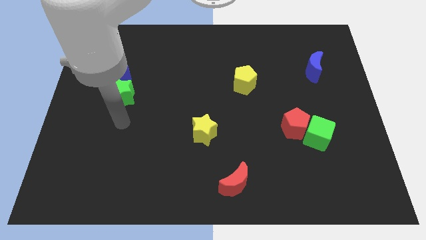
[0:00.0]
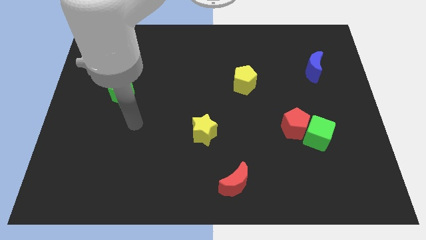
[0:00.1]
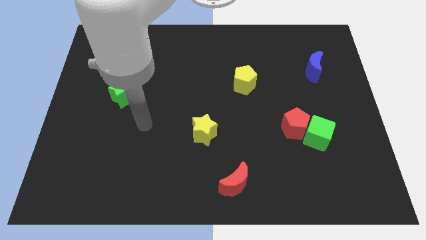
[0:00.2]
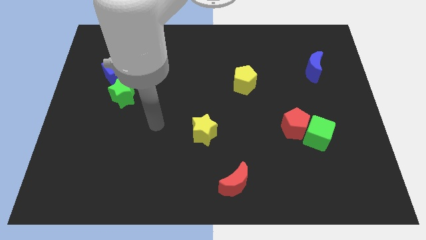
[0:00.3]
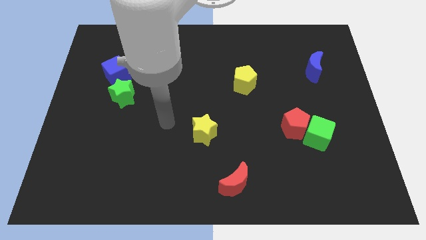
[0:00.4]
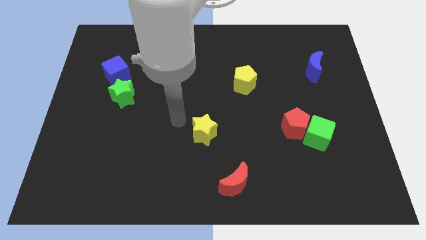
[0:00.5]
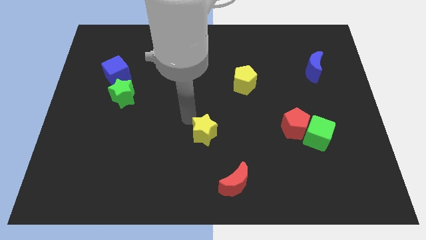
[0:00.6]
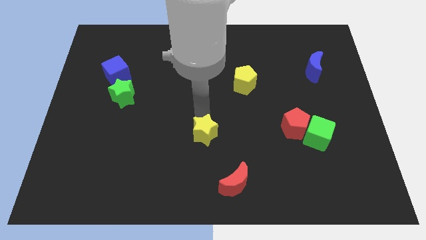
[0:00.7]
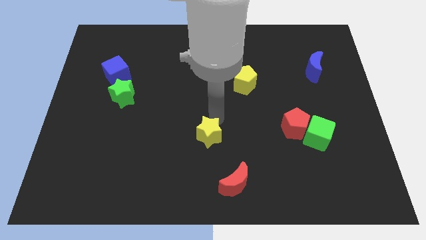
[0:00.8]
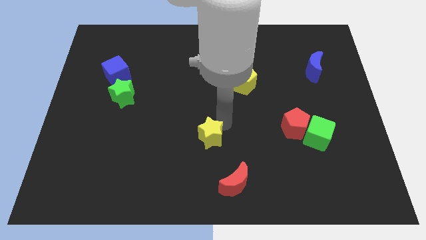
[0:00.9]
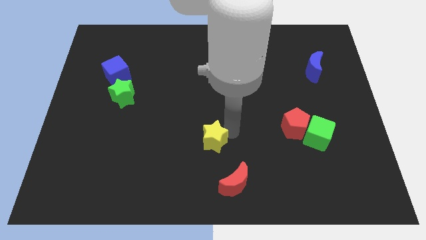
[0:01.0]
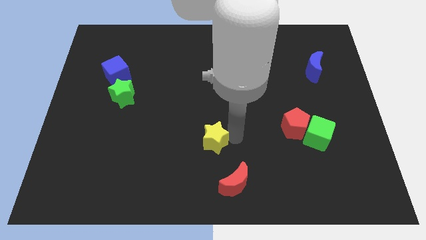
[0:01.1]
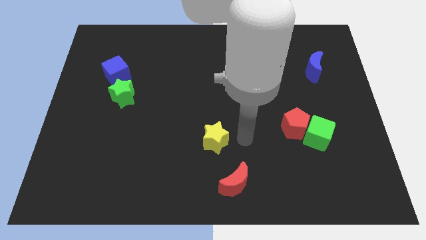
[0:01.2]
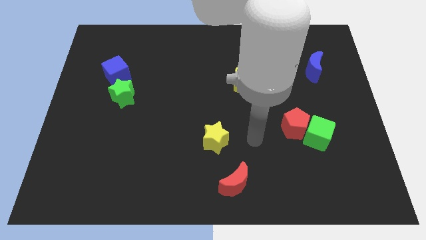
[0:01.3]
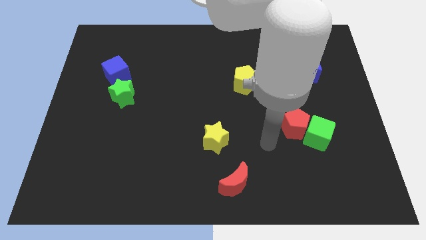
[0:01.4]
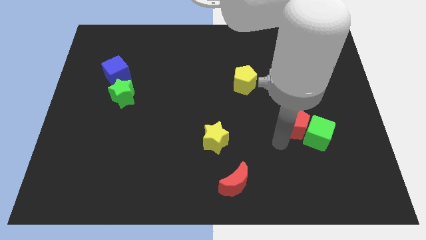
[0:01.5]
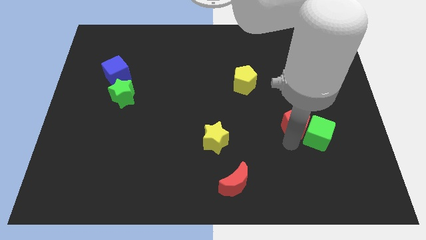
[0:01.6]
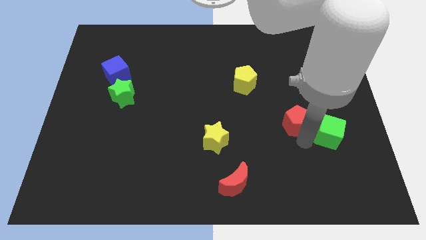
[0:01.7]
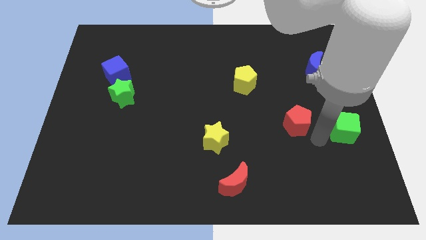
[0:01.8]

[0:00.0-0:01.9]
separate the red pentagon from the green cube

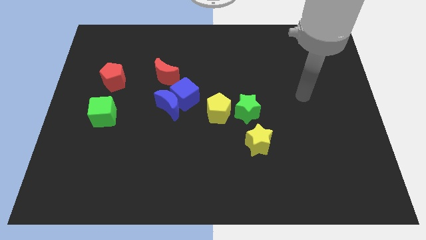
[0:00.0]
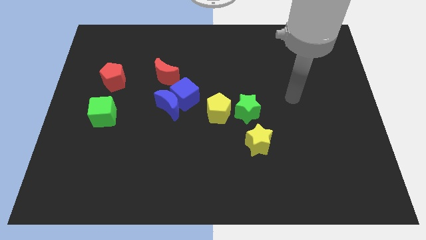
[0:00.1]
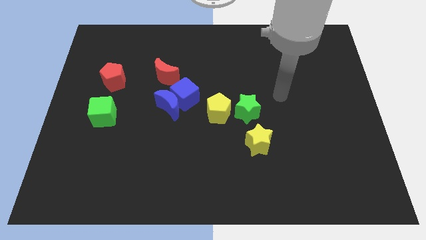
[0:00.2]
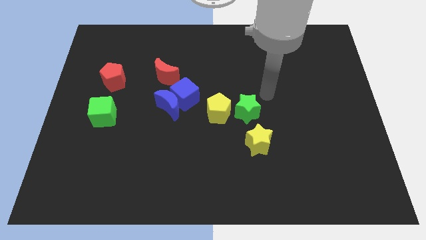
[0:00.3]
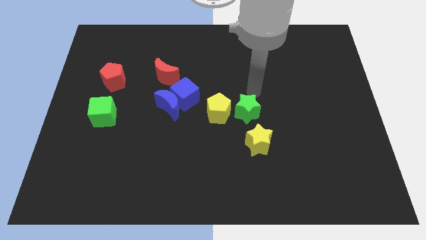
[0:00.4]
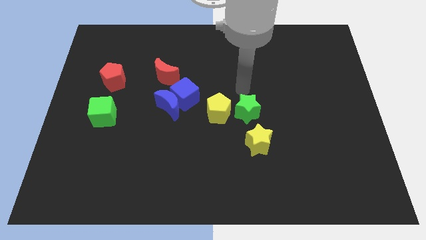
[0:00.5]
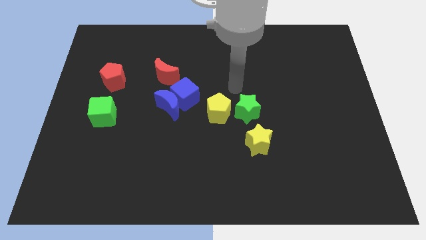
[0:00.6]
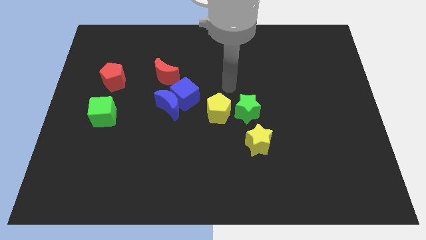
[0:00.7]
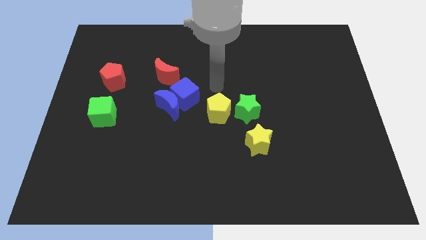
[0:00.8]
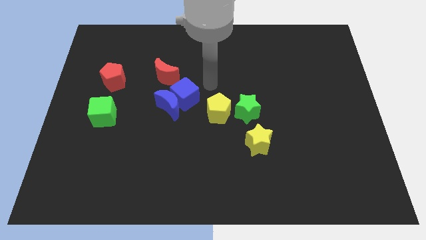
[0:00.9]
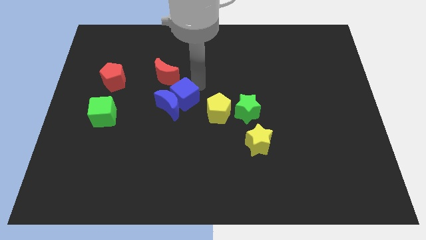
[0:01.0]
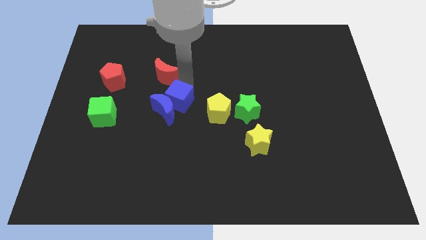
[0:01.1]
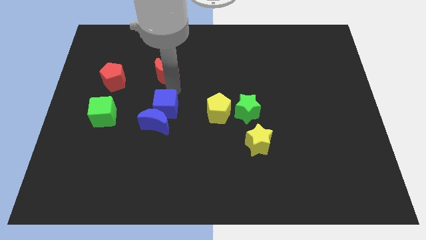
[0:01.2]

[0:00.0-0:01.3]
pull the blue moon apart from the blue cube and red moon

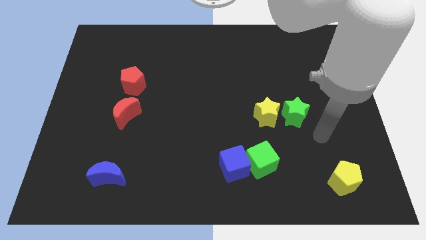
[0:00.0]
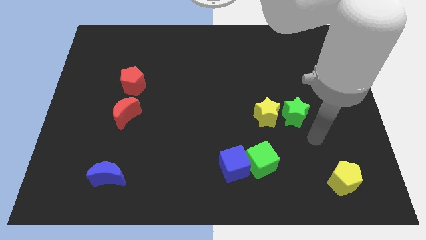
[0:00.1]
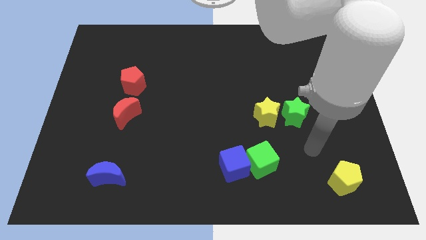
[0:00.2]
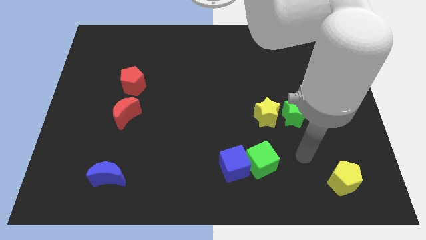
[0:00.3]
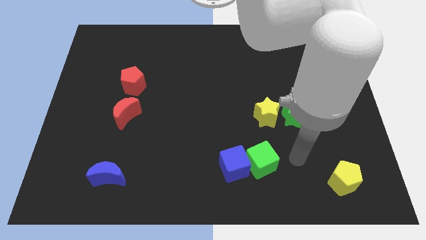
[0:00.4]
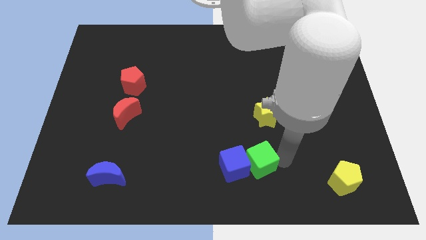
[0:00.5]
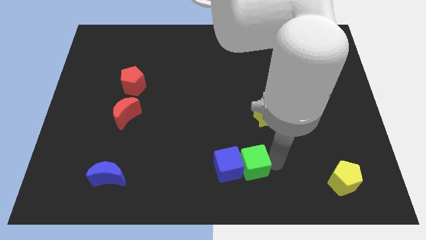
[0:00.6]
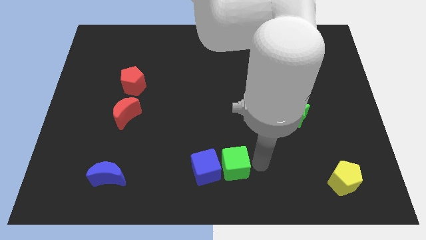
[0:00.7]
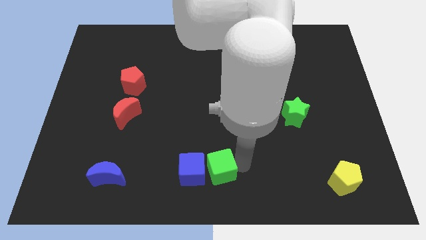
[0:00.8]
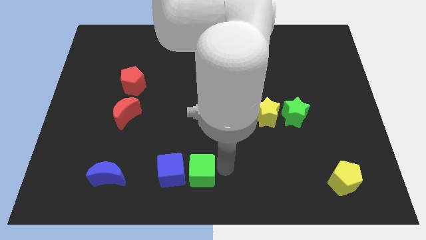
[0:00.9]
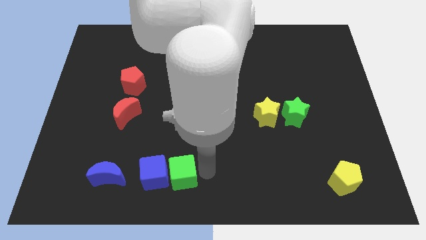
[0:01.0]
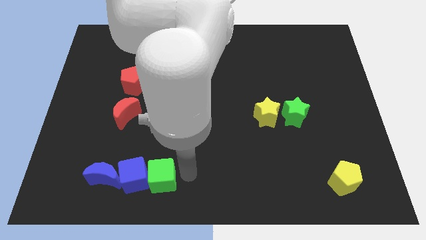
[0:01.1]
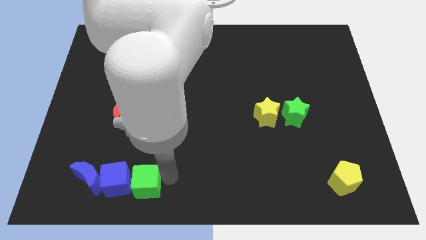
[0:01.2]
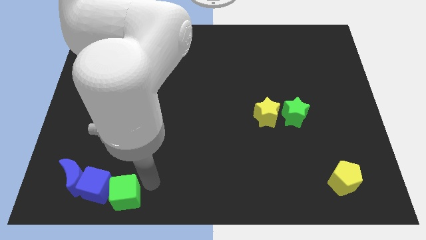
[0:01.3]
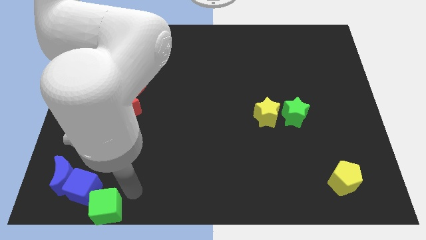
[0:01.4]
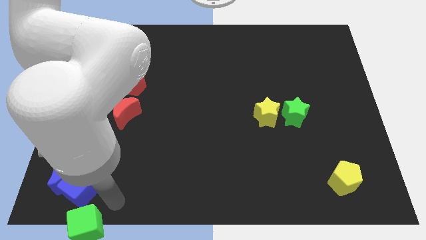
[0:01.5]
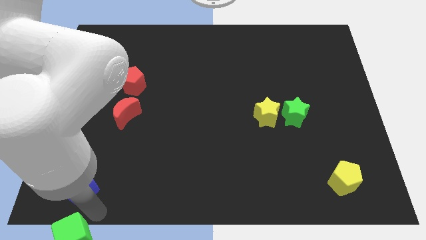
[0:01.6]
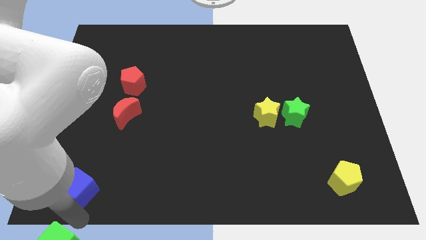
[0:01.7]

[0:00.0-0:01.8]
move the blue cube away from the green cube

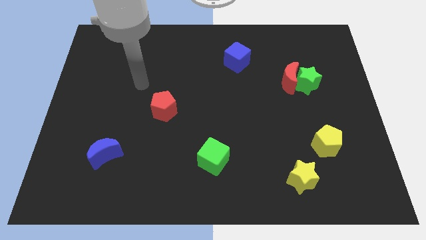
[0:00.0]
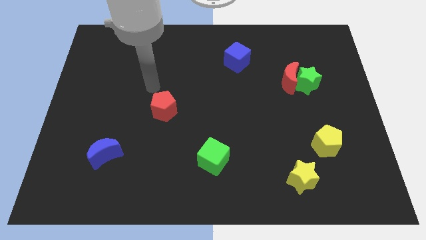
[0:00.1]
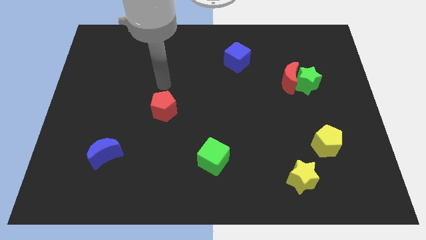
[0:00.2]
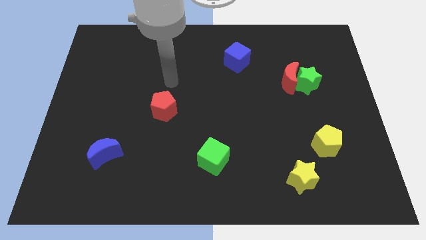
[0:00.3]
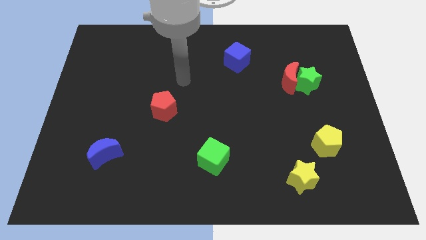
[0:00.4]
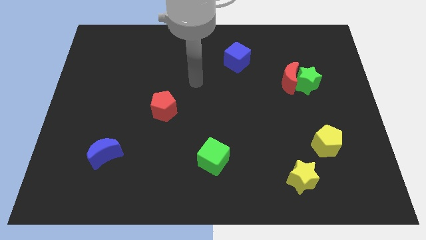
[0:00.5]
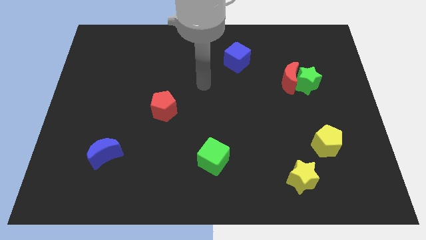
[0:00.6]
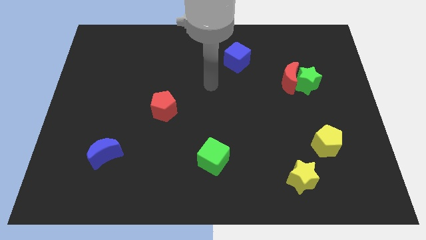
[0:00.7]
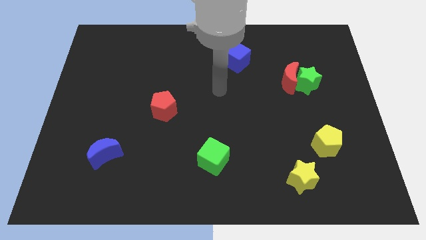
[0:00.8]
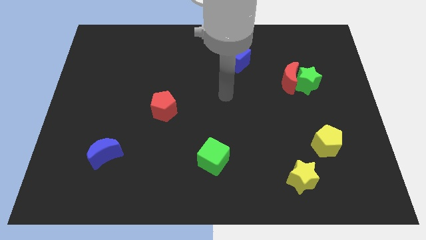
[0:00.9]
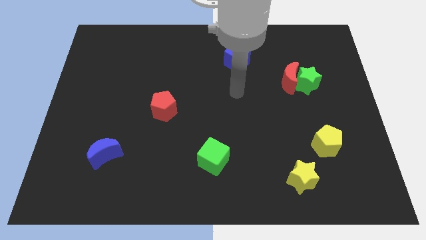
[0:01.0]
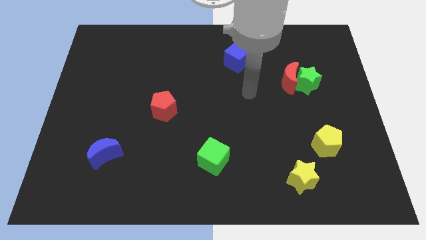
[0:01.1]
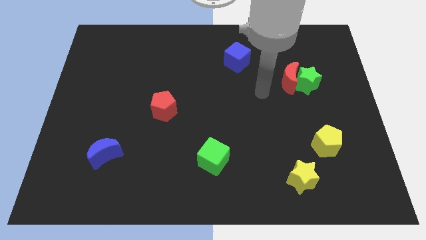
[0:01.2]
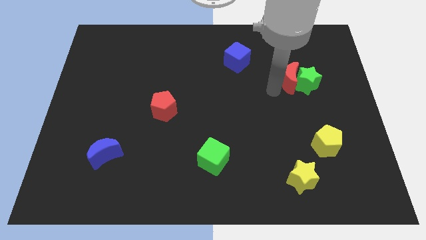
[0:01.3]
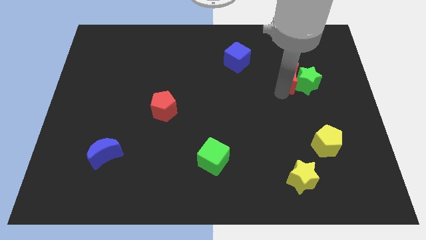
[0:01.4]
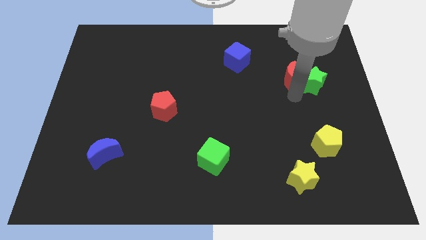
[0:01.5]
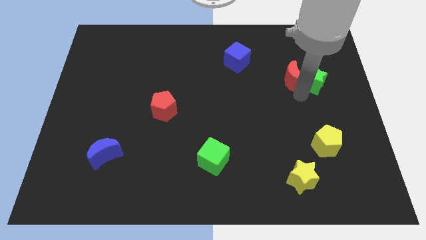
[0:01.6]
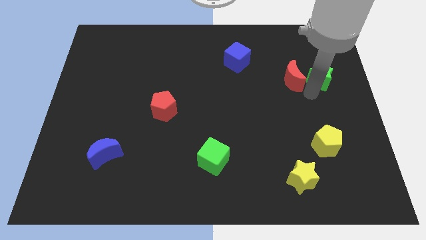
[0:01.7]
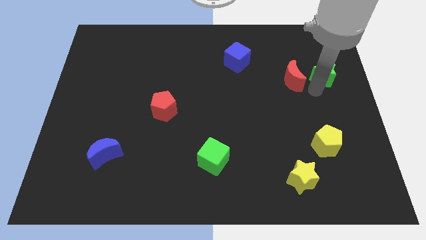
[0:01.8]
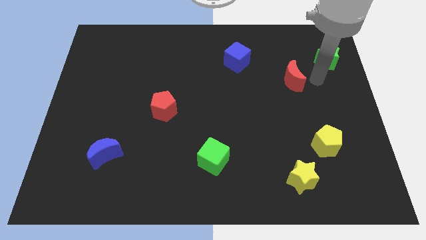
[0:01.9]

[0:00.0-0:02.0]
pull the red moon apart from the green star

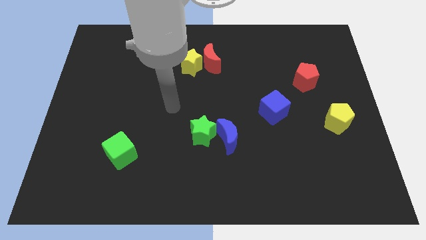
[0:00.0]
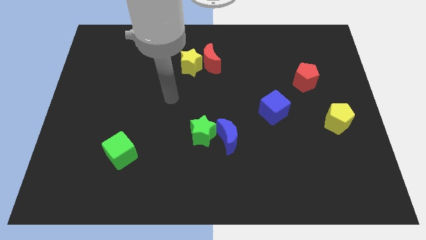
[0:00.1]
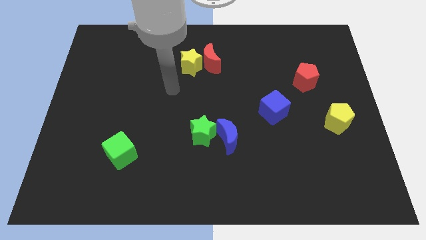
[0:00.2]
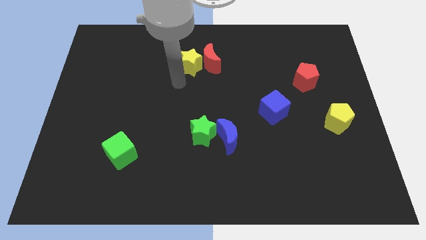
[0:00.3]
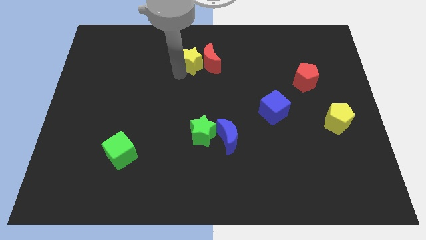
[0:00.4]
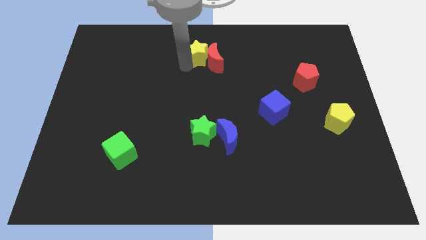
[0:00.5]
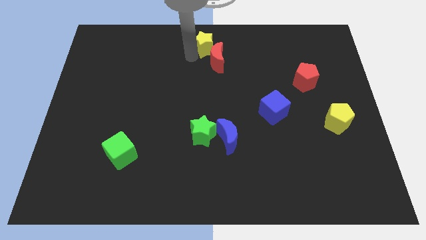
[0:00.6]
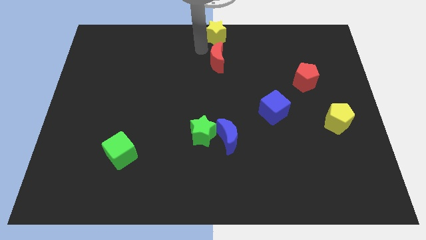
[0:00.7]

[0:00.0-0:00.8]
move the red moon away from the yellow star

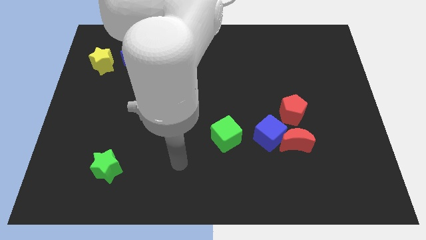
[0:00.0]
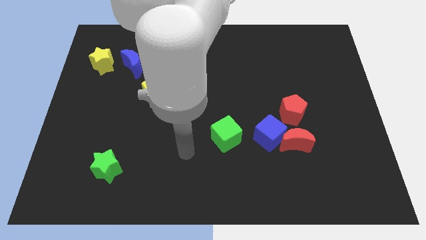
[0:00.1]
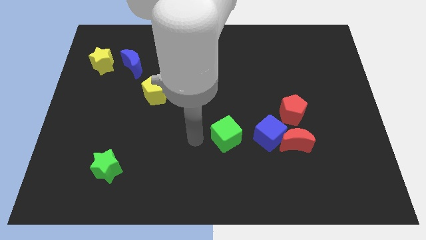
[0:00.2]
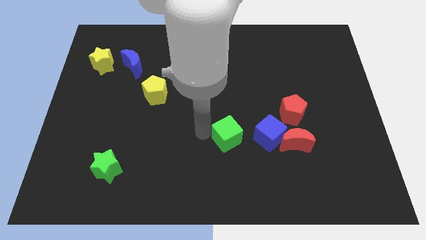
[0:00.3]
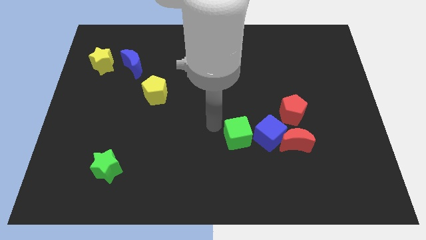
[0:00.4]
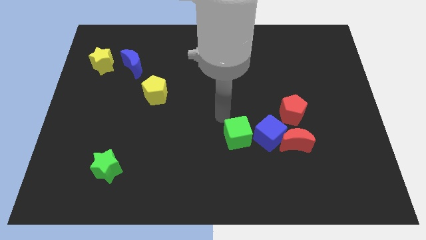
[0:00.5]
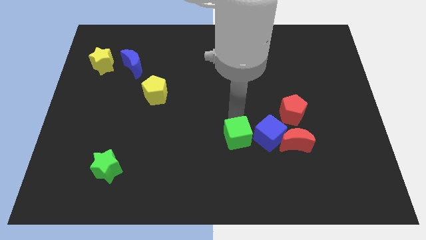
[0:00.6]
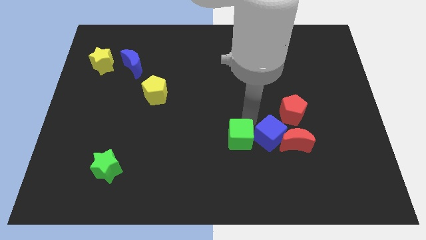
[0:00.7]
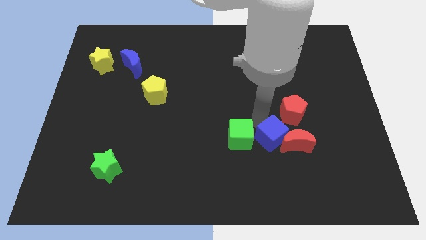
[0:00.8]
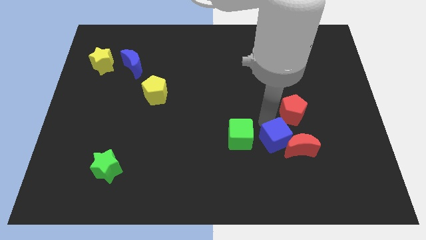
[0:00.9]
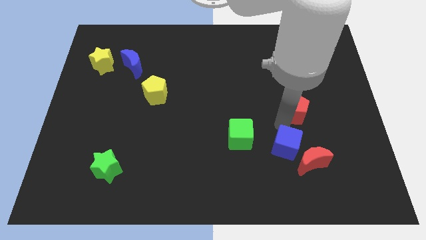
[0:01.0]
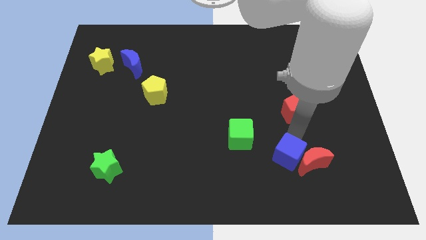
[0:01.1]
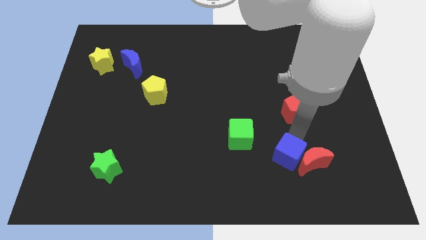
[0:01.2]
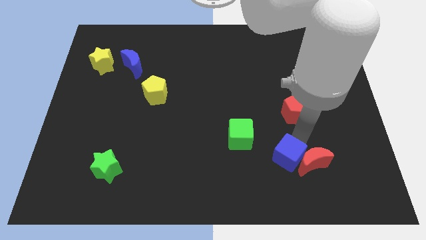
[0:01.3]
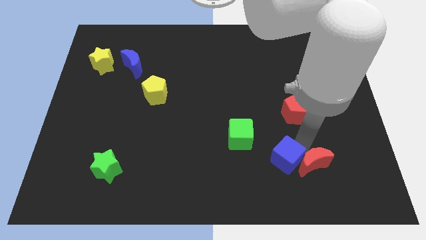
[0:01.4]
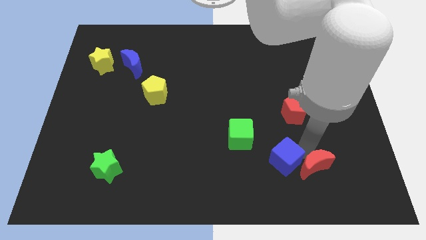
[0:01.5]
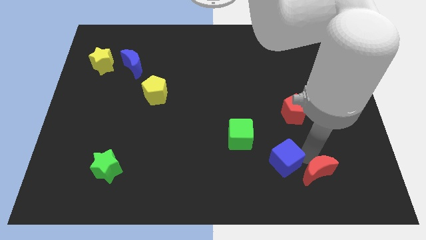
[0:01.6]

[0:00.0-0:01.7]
pull the red moon apart from the blue cube and red pentagon
